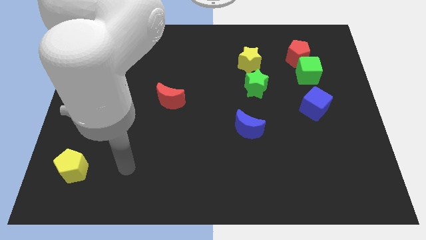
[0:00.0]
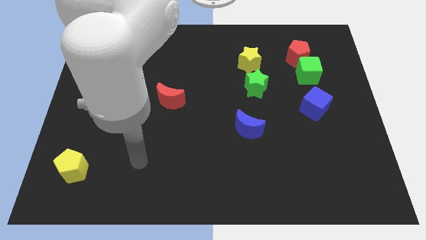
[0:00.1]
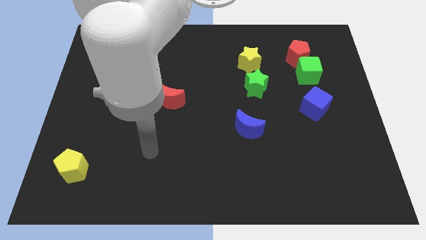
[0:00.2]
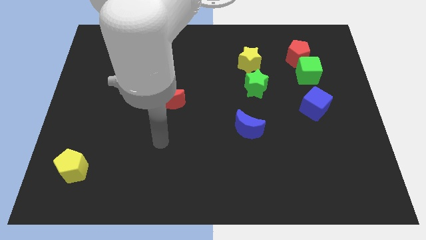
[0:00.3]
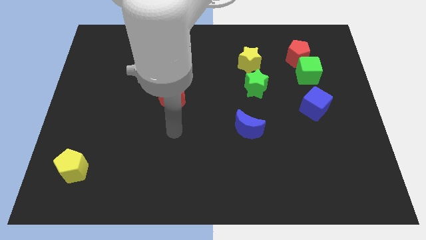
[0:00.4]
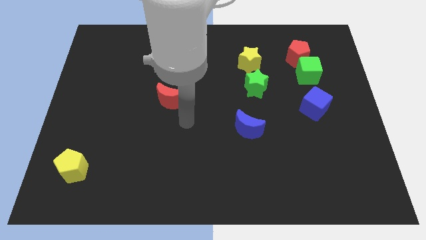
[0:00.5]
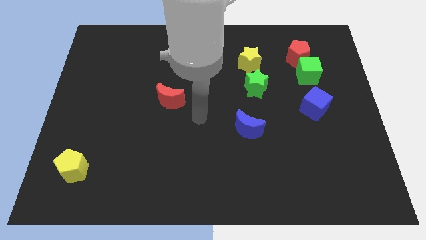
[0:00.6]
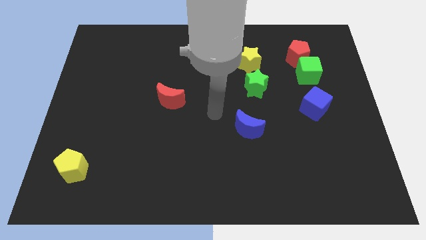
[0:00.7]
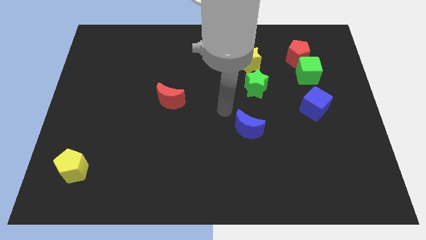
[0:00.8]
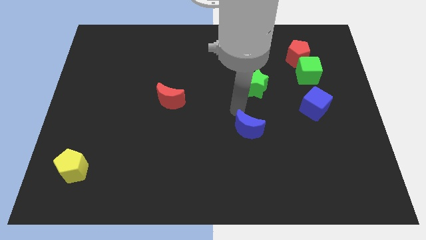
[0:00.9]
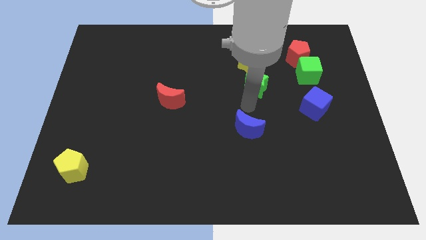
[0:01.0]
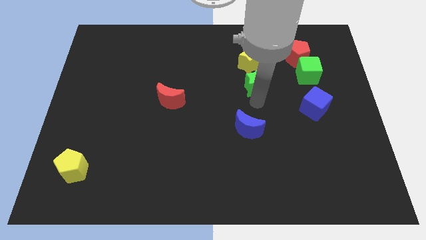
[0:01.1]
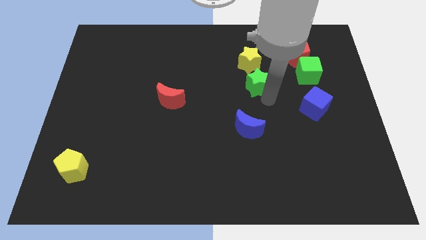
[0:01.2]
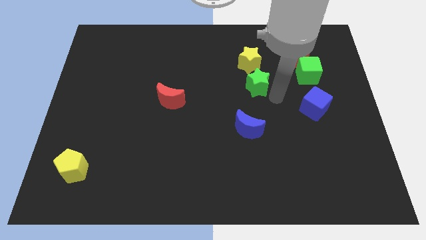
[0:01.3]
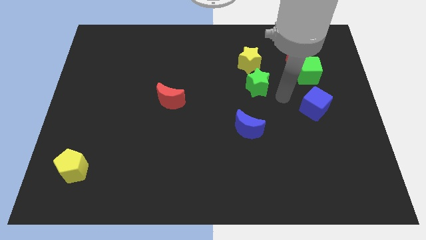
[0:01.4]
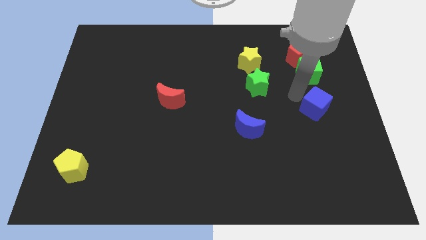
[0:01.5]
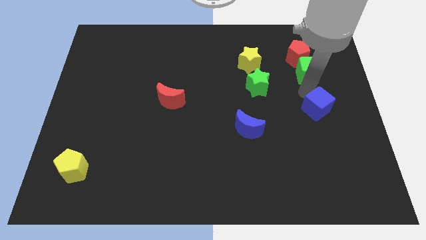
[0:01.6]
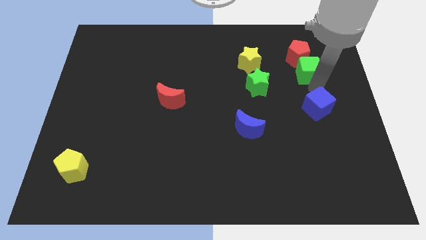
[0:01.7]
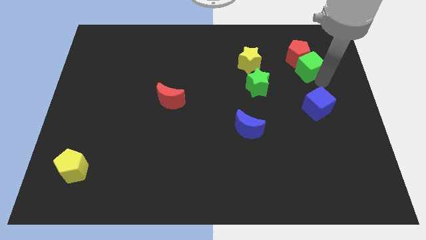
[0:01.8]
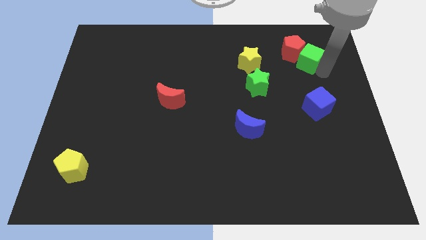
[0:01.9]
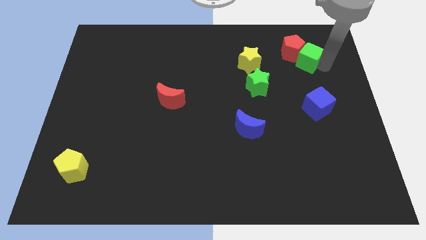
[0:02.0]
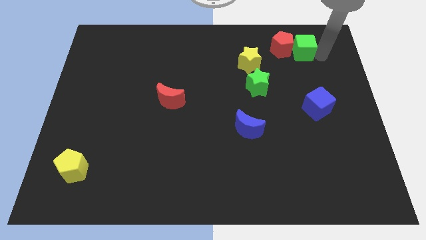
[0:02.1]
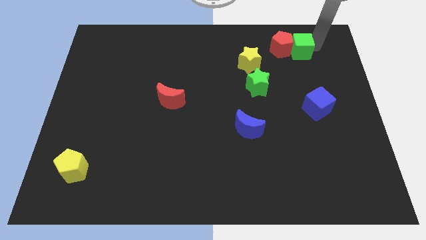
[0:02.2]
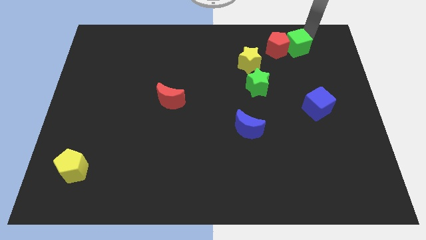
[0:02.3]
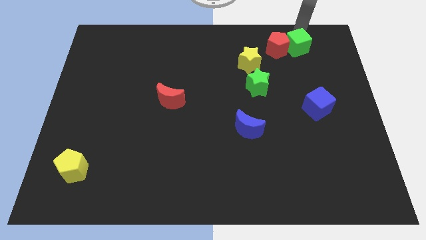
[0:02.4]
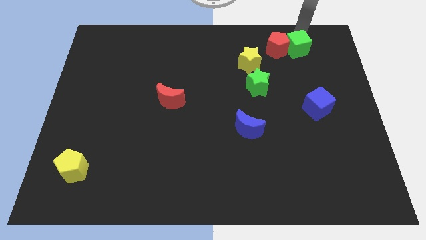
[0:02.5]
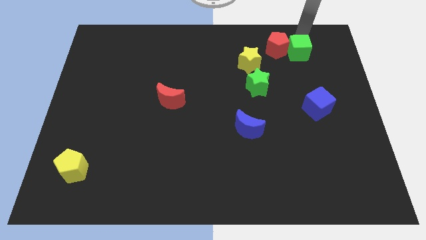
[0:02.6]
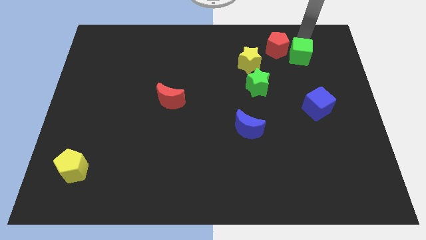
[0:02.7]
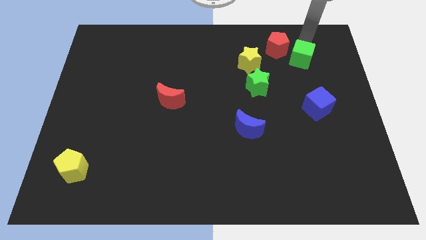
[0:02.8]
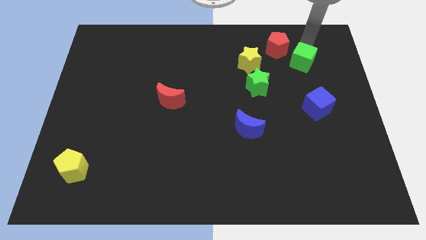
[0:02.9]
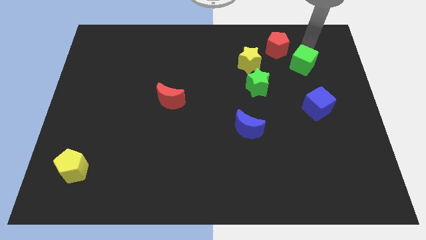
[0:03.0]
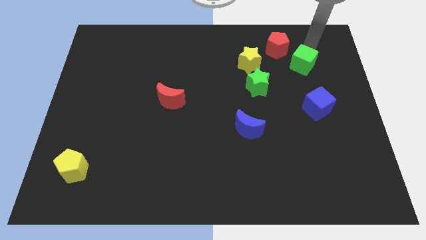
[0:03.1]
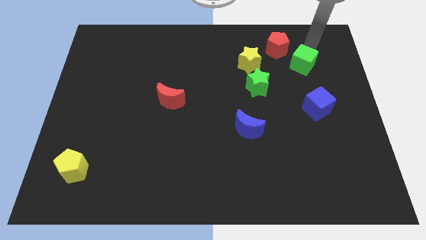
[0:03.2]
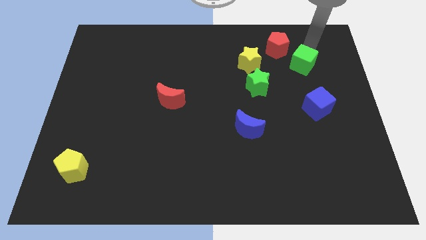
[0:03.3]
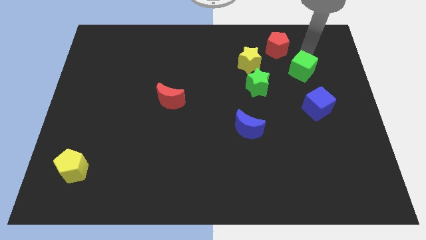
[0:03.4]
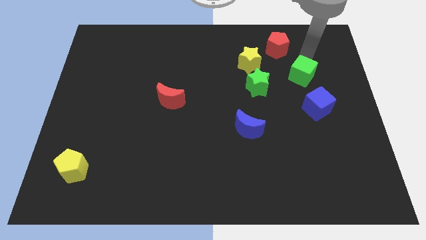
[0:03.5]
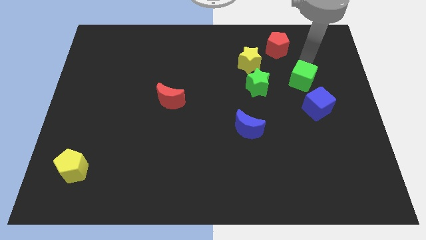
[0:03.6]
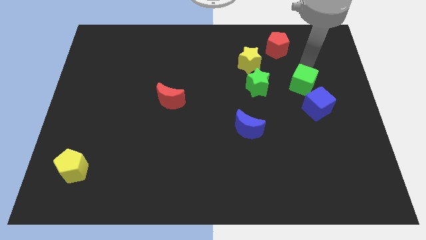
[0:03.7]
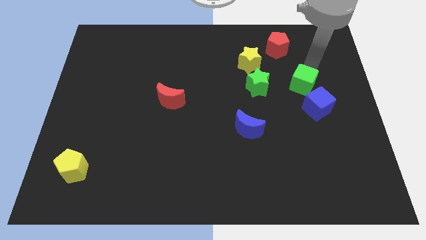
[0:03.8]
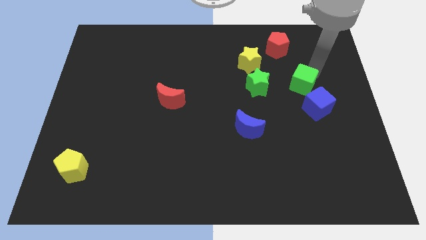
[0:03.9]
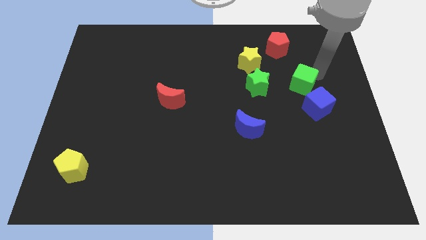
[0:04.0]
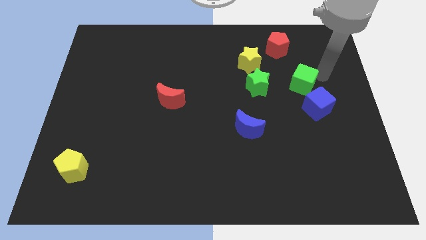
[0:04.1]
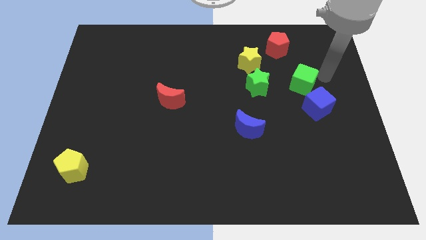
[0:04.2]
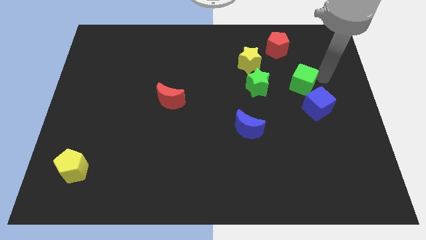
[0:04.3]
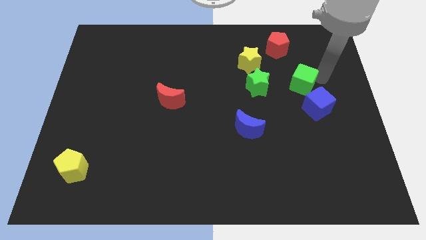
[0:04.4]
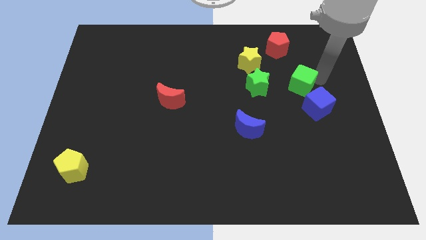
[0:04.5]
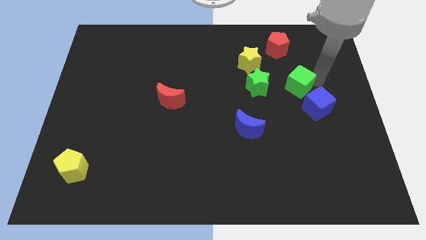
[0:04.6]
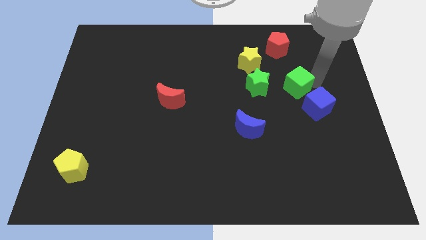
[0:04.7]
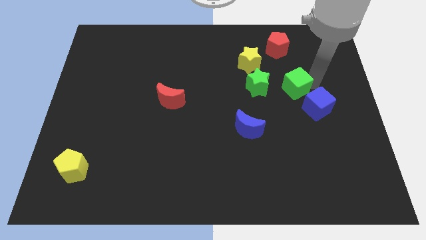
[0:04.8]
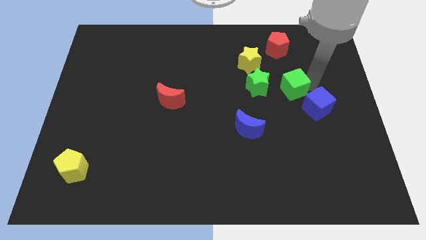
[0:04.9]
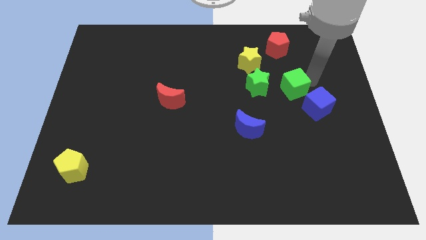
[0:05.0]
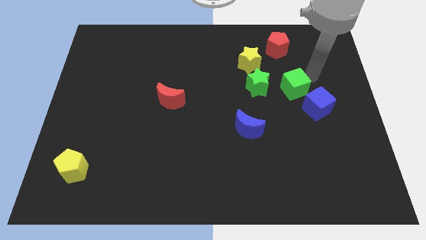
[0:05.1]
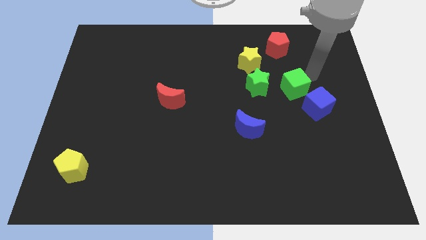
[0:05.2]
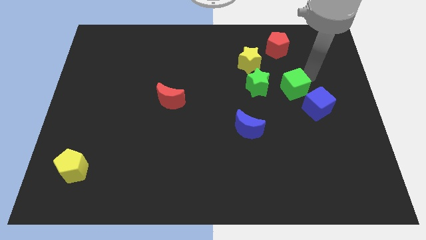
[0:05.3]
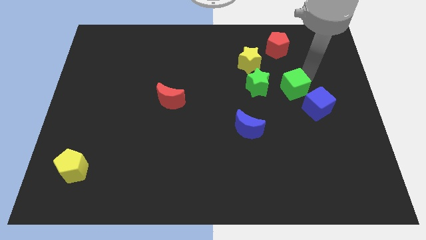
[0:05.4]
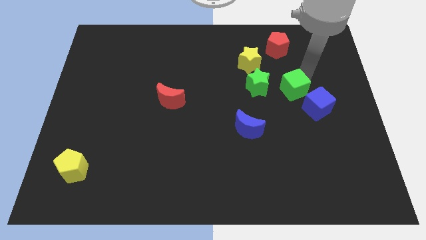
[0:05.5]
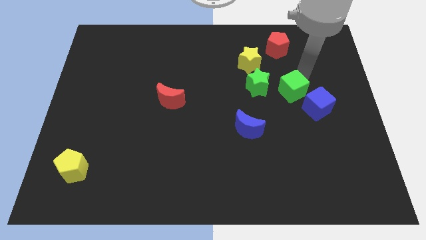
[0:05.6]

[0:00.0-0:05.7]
move the green cube somewhat downwards and left diagonally

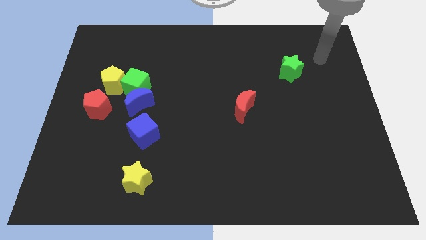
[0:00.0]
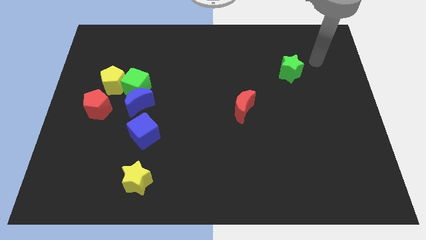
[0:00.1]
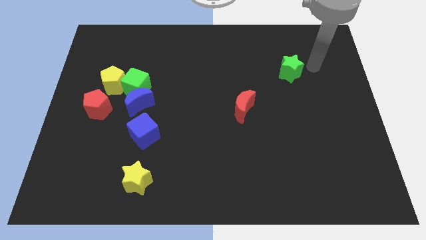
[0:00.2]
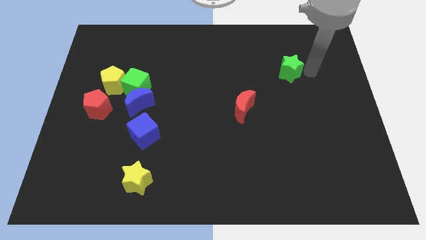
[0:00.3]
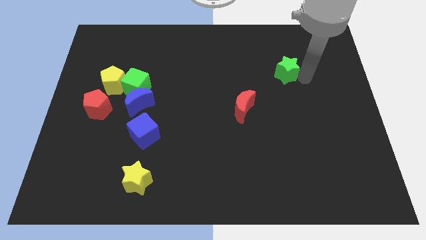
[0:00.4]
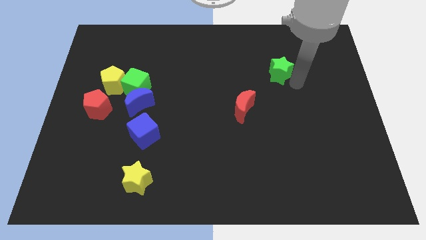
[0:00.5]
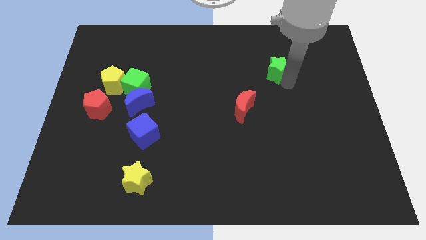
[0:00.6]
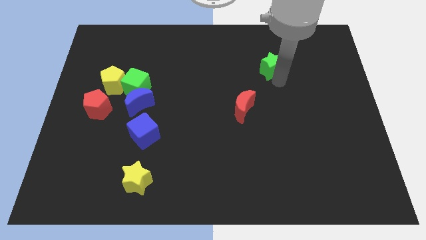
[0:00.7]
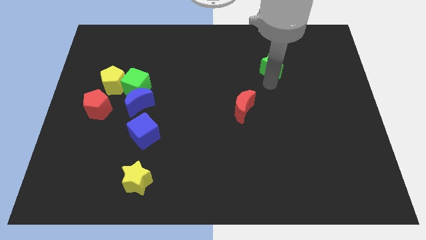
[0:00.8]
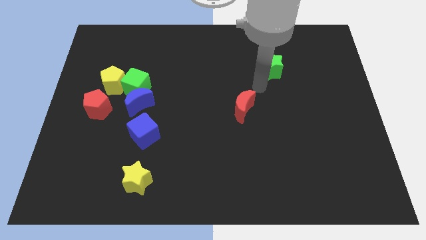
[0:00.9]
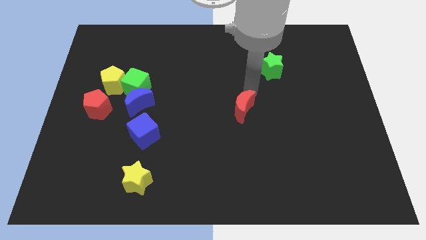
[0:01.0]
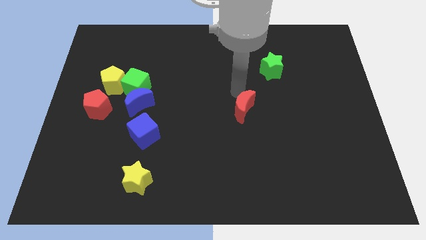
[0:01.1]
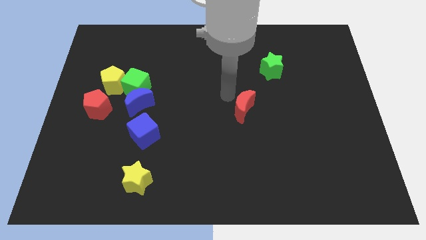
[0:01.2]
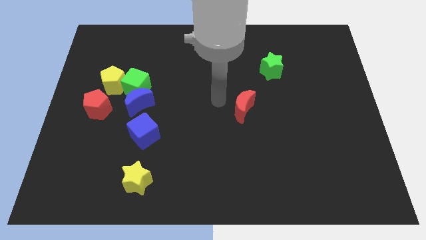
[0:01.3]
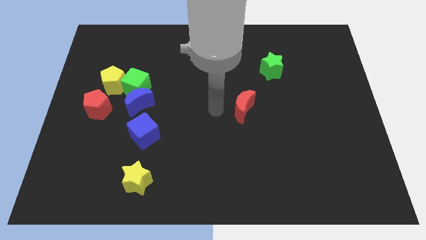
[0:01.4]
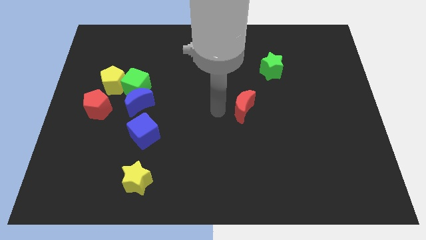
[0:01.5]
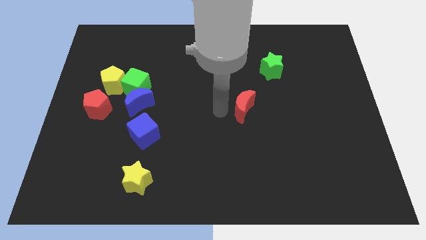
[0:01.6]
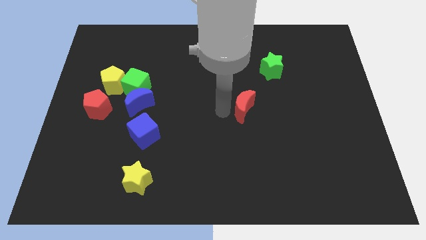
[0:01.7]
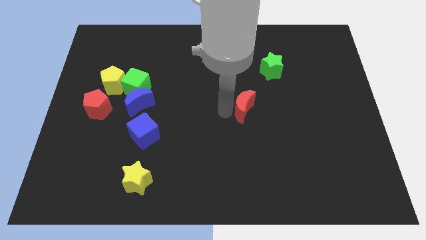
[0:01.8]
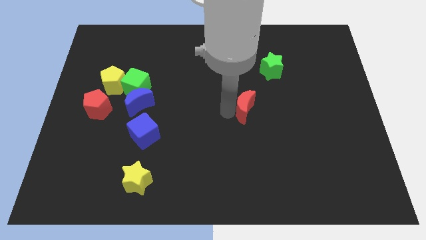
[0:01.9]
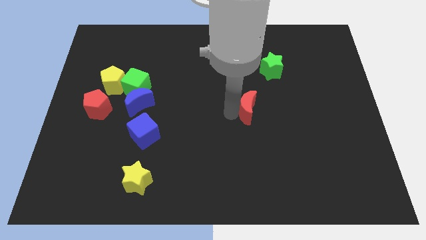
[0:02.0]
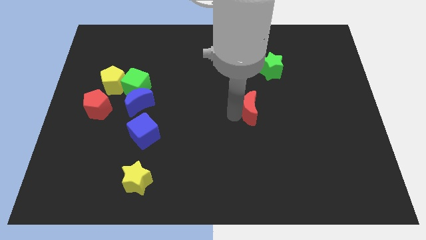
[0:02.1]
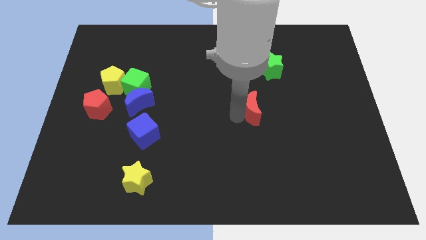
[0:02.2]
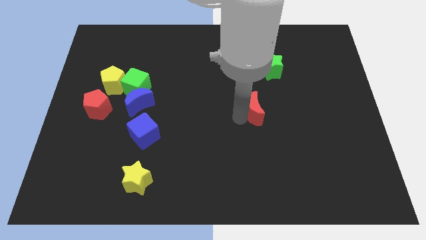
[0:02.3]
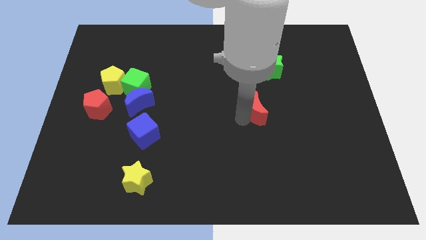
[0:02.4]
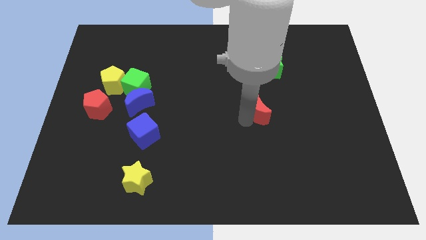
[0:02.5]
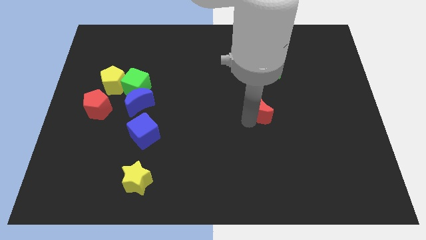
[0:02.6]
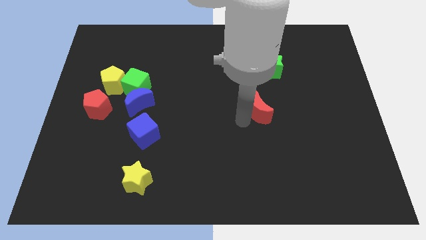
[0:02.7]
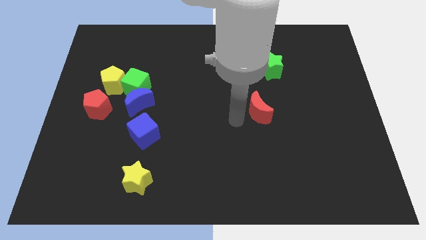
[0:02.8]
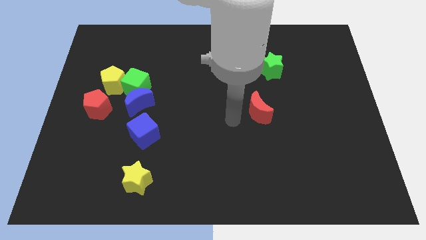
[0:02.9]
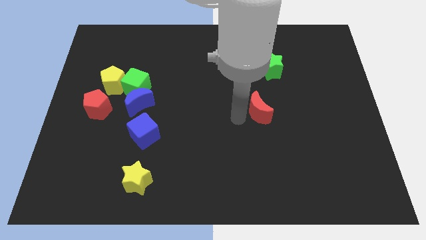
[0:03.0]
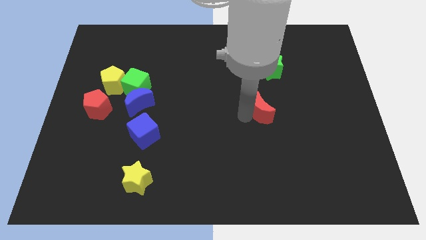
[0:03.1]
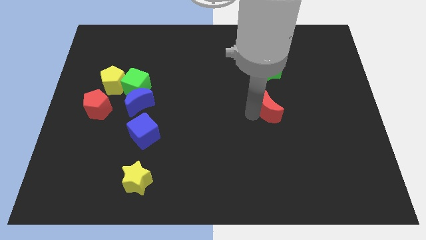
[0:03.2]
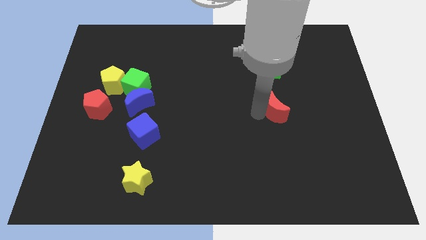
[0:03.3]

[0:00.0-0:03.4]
slightly move the red moon to the right
